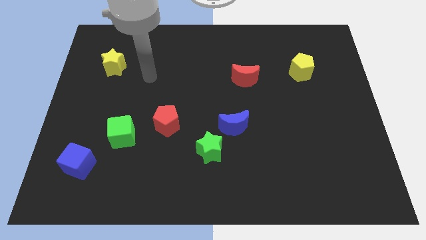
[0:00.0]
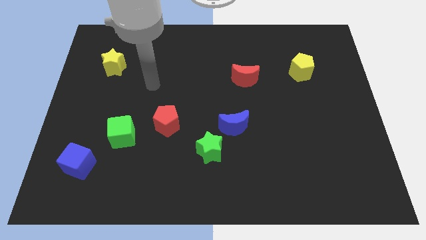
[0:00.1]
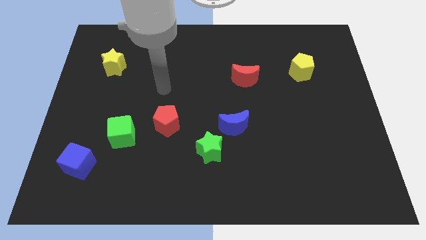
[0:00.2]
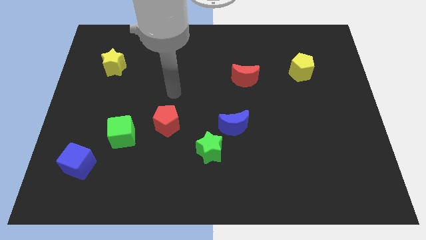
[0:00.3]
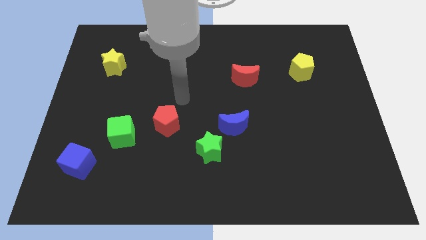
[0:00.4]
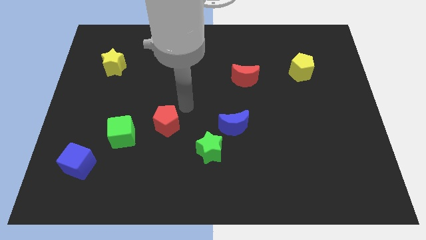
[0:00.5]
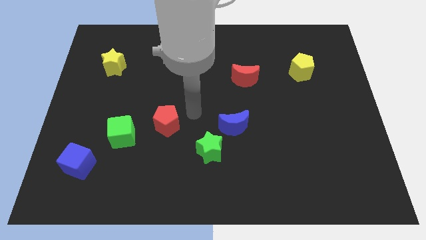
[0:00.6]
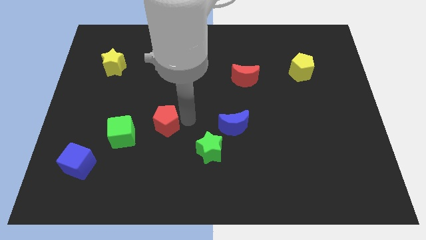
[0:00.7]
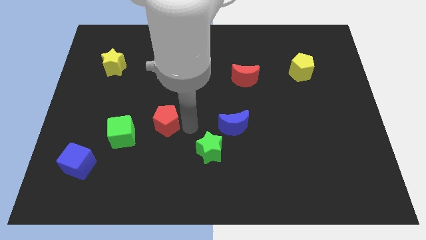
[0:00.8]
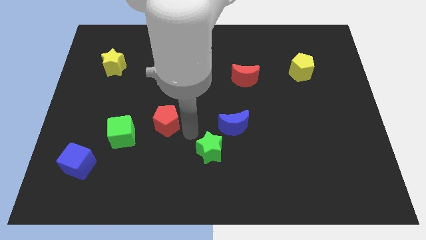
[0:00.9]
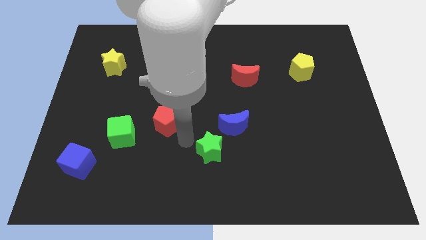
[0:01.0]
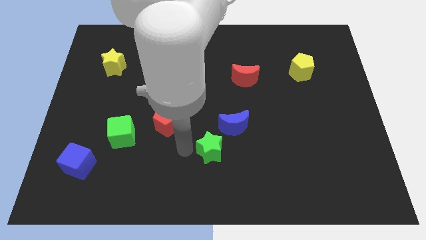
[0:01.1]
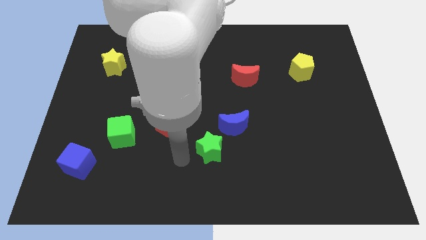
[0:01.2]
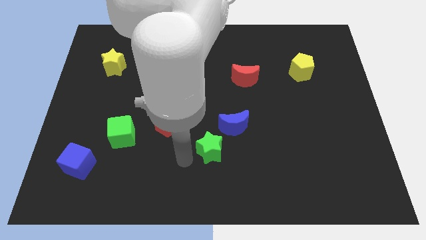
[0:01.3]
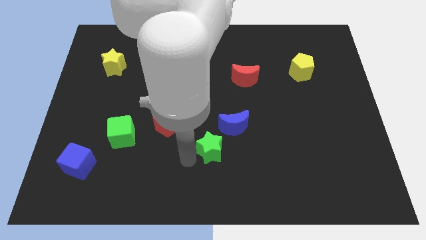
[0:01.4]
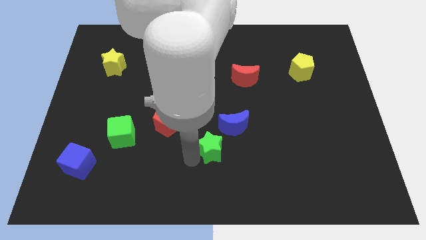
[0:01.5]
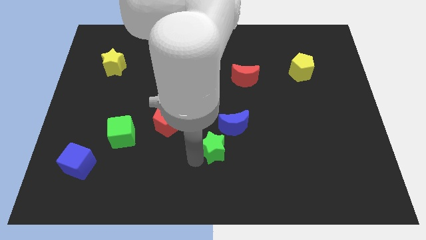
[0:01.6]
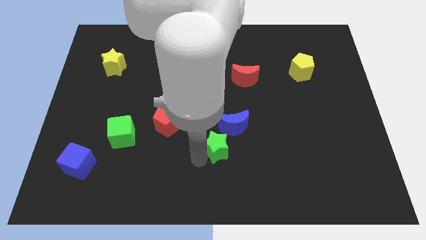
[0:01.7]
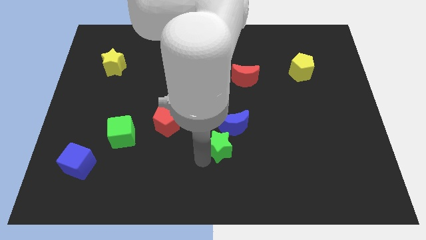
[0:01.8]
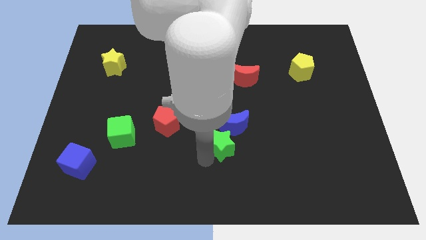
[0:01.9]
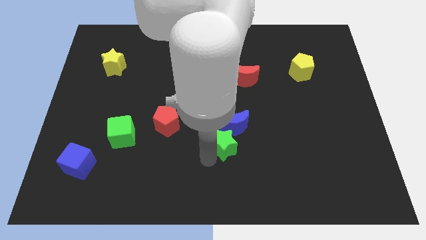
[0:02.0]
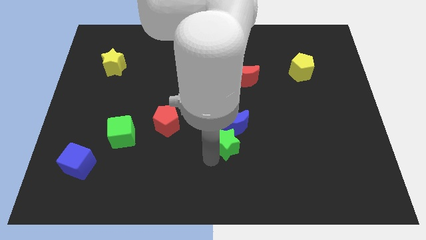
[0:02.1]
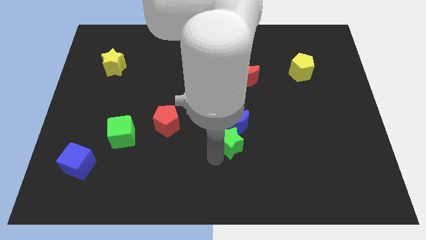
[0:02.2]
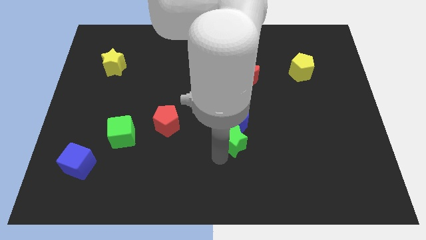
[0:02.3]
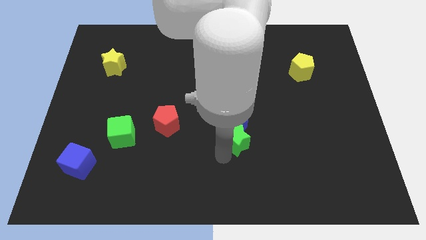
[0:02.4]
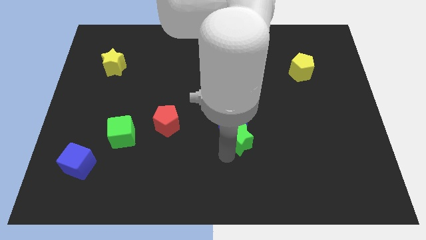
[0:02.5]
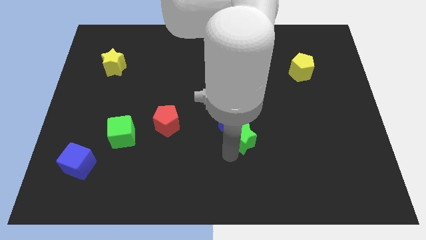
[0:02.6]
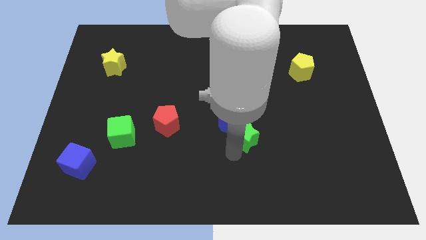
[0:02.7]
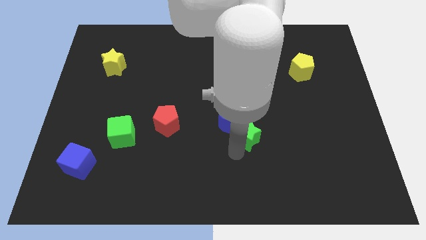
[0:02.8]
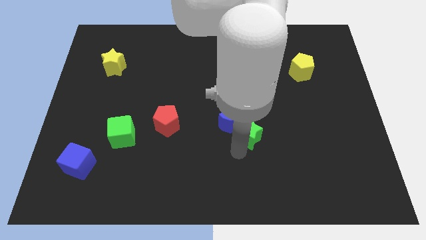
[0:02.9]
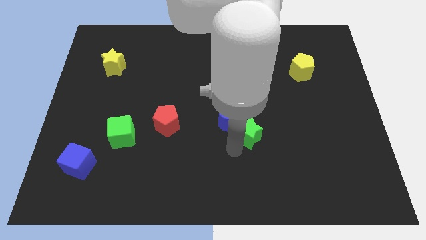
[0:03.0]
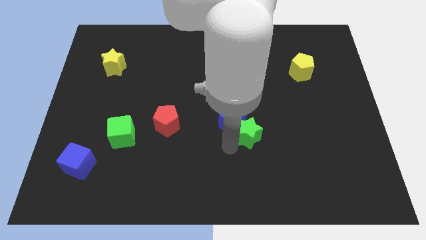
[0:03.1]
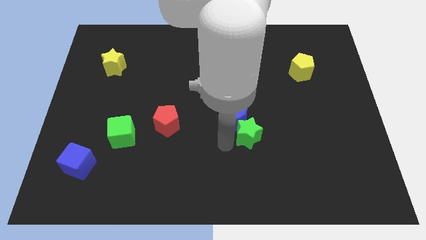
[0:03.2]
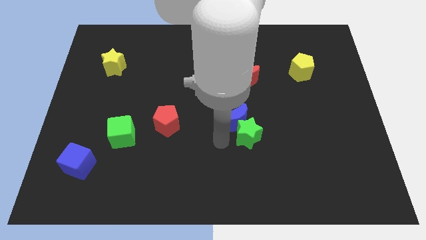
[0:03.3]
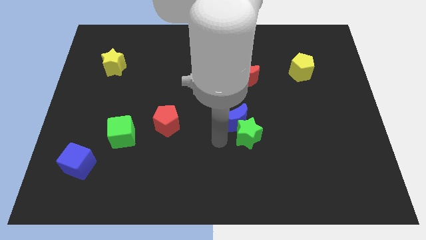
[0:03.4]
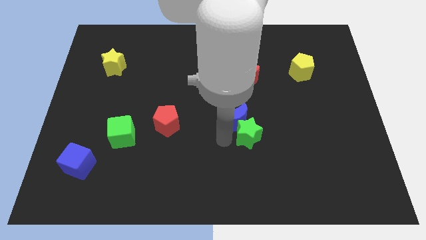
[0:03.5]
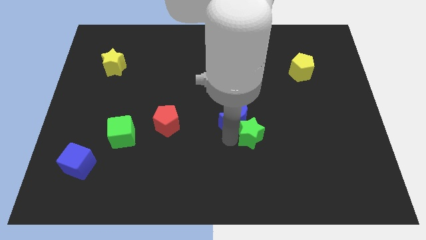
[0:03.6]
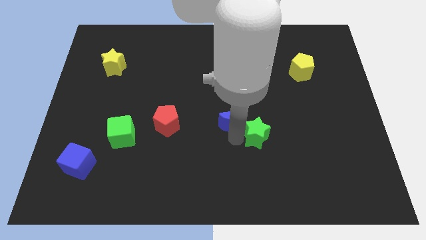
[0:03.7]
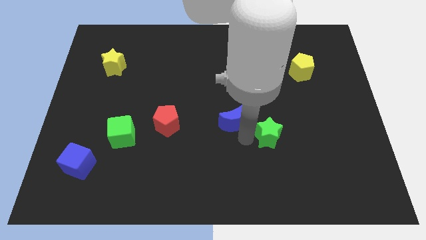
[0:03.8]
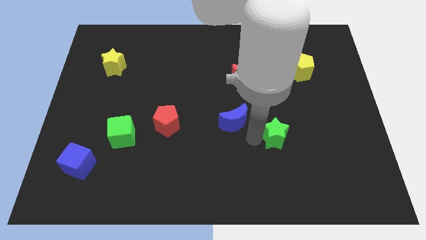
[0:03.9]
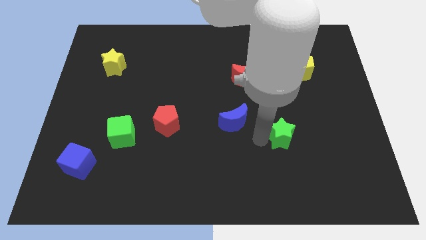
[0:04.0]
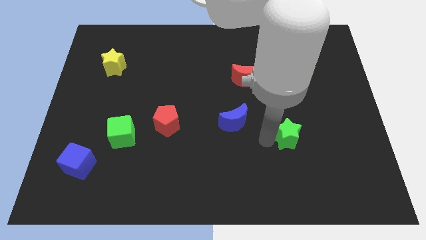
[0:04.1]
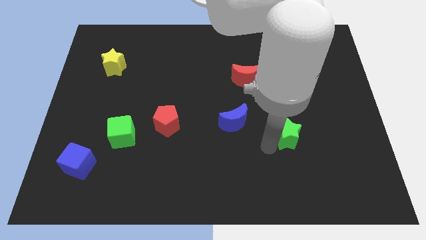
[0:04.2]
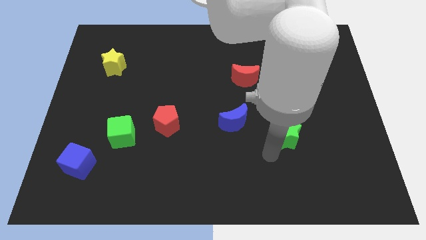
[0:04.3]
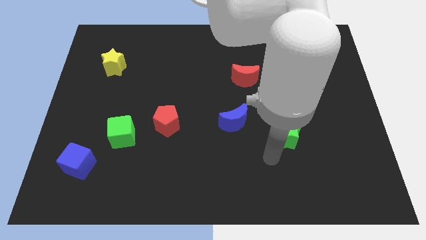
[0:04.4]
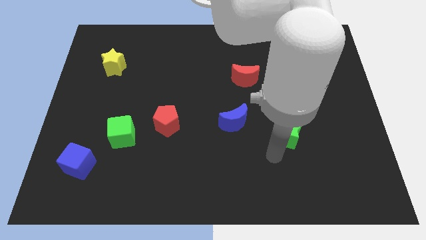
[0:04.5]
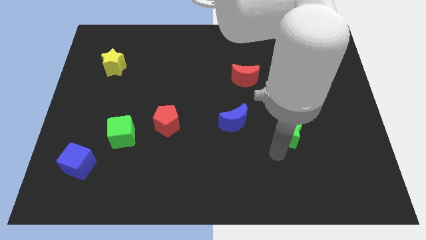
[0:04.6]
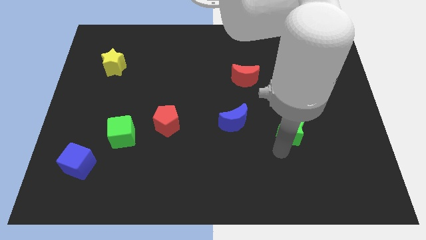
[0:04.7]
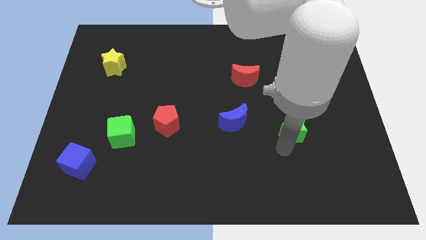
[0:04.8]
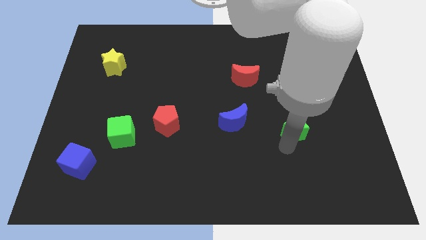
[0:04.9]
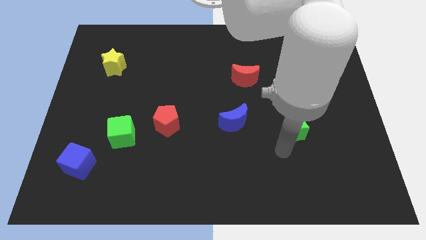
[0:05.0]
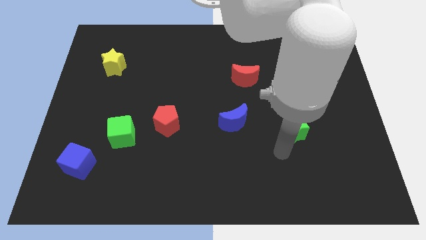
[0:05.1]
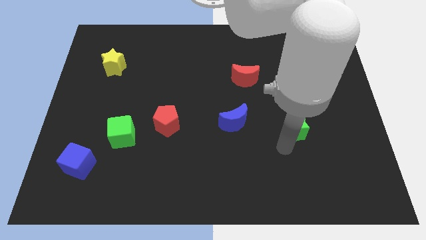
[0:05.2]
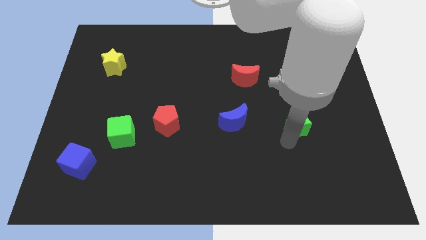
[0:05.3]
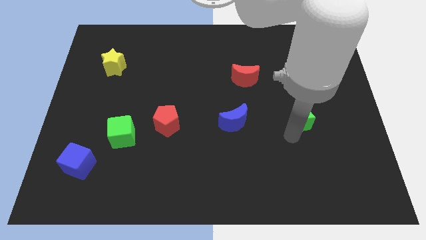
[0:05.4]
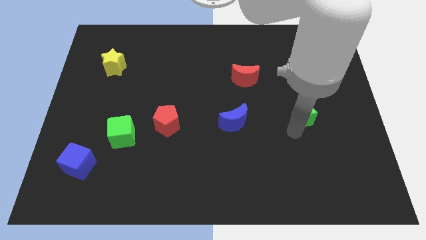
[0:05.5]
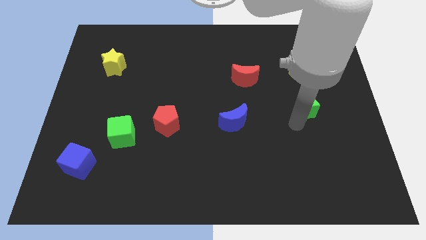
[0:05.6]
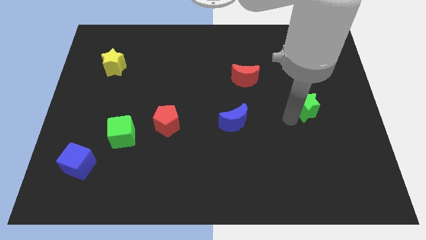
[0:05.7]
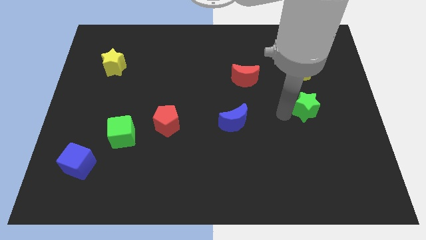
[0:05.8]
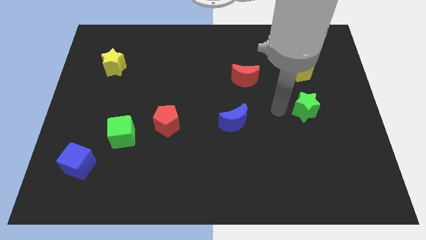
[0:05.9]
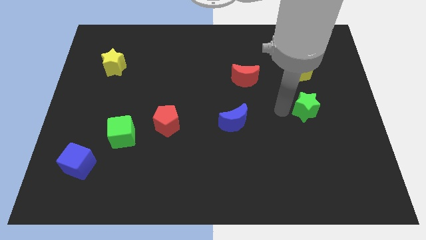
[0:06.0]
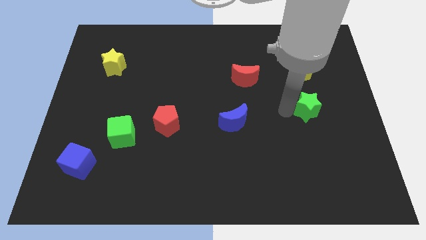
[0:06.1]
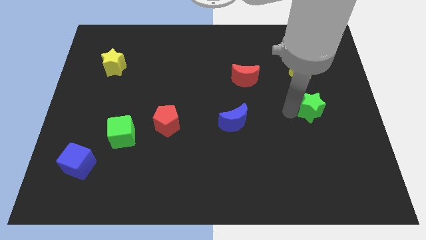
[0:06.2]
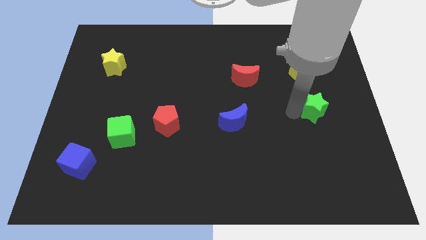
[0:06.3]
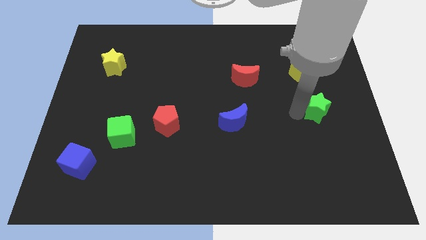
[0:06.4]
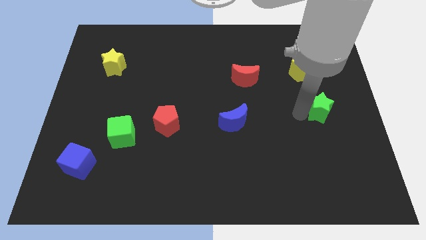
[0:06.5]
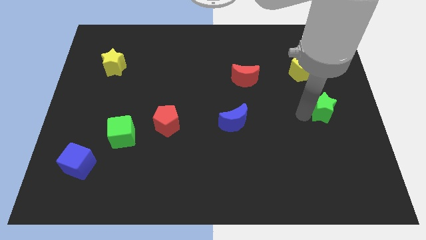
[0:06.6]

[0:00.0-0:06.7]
slide the green star to the right side of the board
